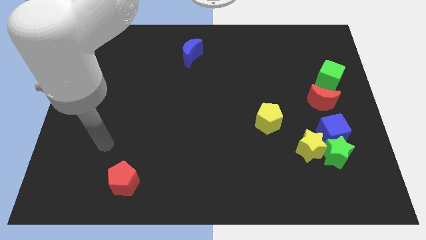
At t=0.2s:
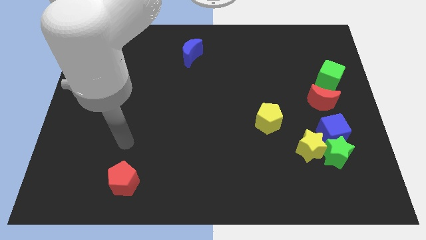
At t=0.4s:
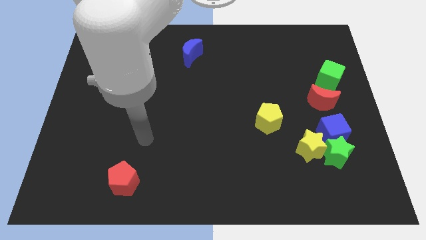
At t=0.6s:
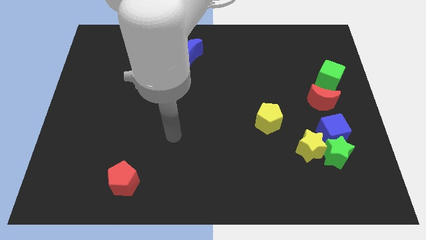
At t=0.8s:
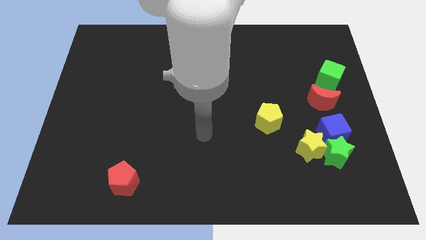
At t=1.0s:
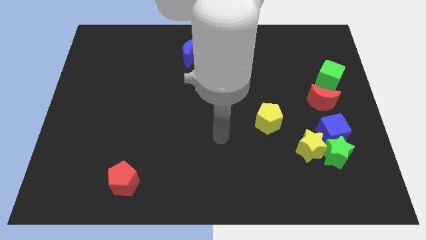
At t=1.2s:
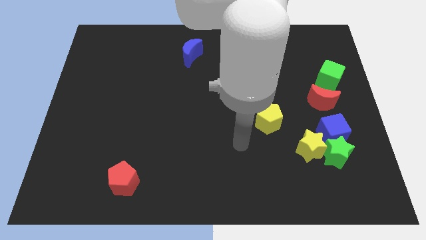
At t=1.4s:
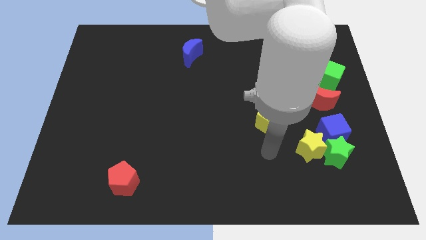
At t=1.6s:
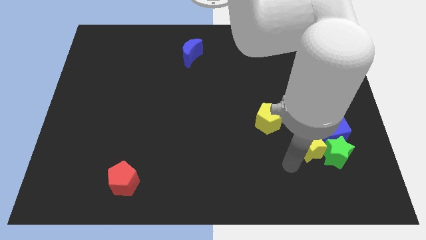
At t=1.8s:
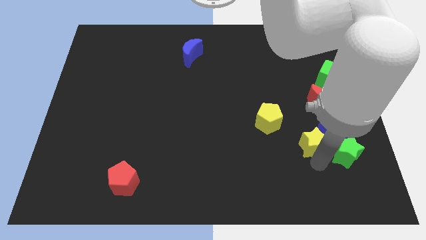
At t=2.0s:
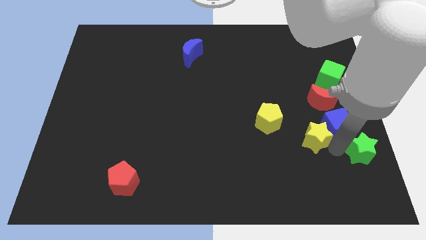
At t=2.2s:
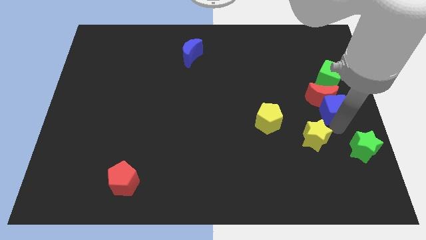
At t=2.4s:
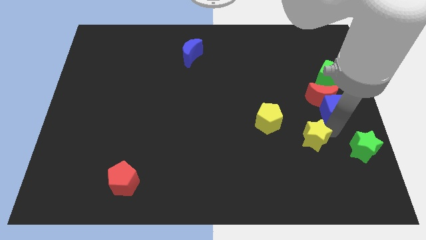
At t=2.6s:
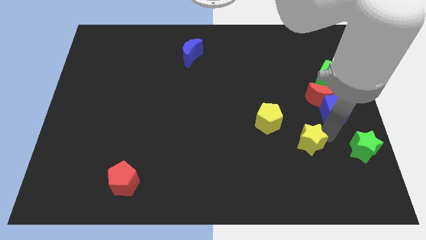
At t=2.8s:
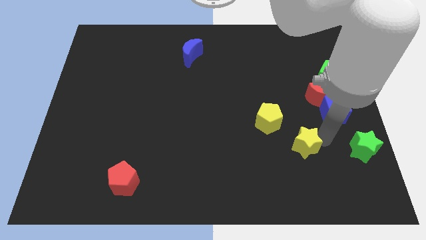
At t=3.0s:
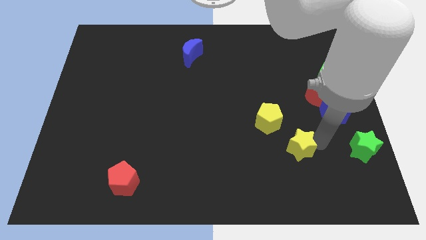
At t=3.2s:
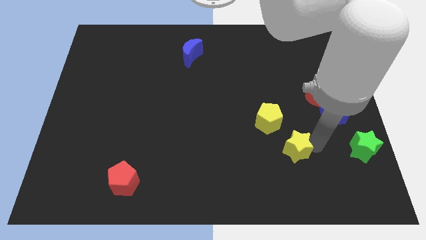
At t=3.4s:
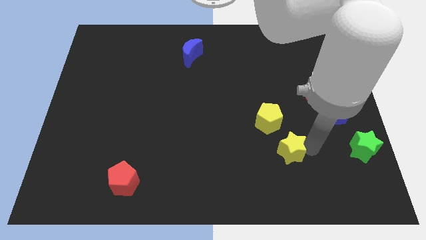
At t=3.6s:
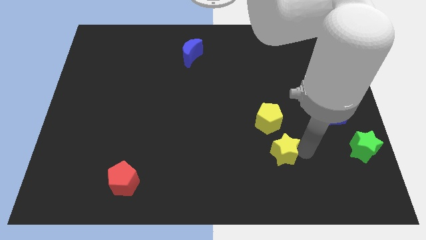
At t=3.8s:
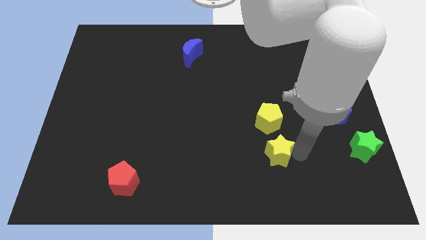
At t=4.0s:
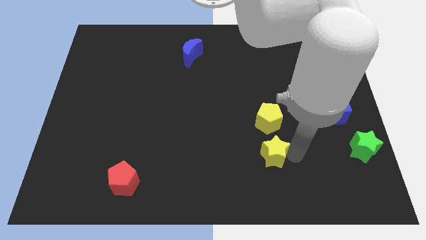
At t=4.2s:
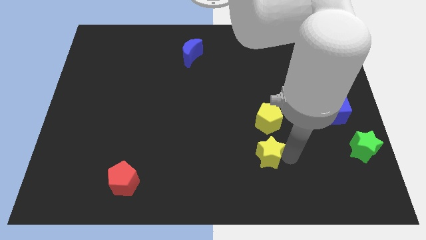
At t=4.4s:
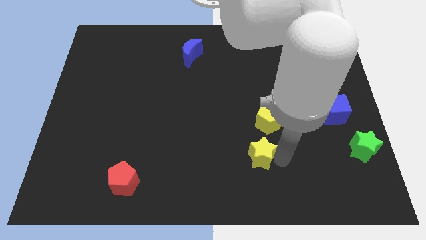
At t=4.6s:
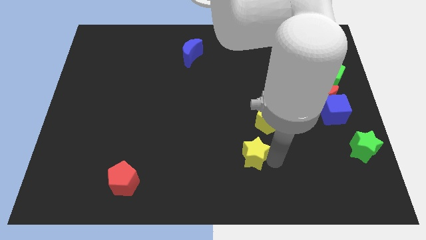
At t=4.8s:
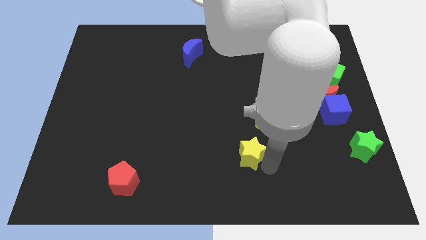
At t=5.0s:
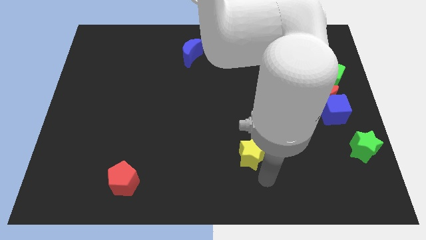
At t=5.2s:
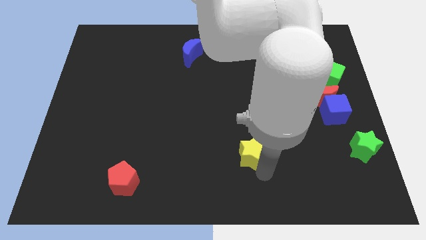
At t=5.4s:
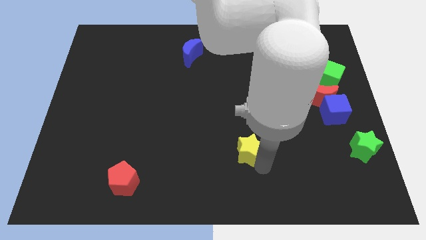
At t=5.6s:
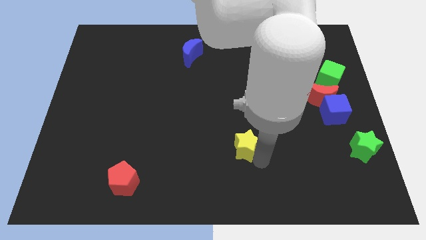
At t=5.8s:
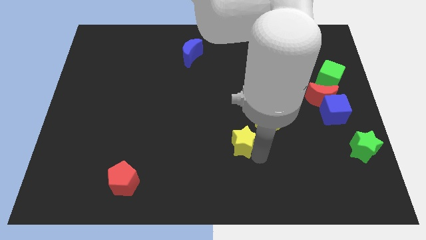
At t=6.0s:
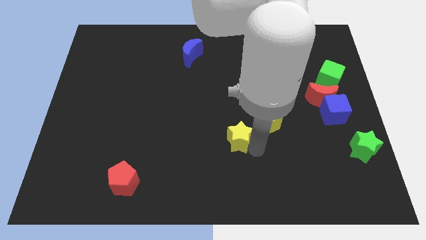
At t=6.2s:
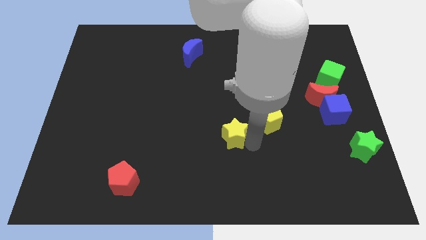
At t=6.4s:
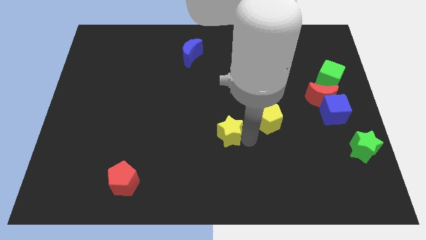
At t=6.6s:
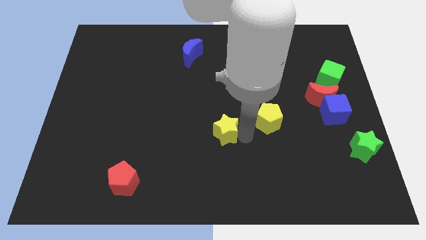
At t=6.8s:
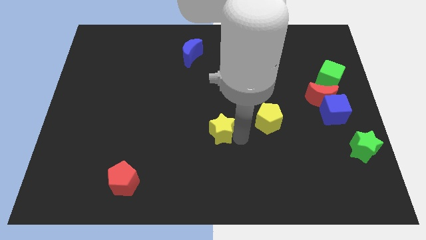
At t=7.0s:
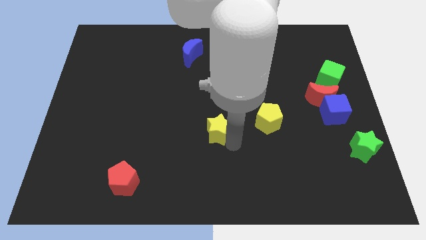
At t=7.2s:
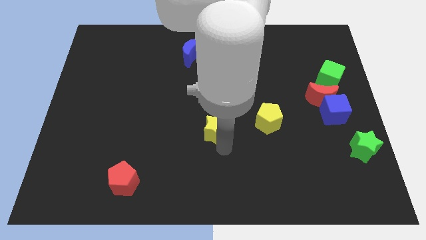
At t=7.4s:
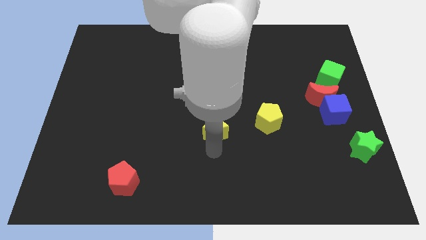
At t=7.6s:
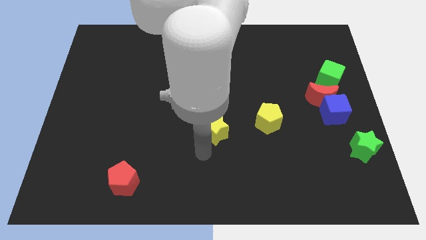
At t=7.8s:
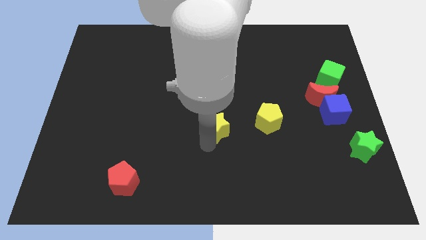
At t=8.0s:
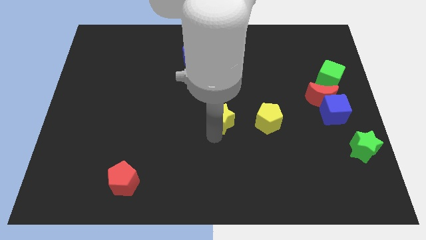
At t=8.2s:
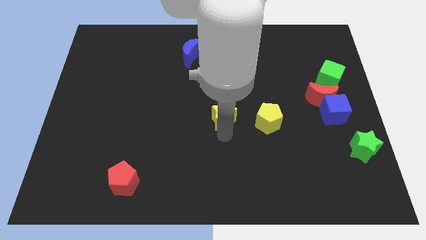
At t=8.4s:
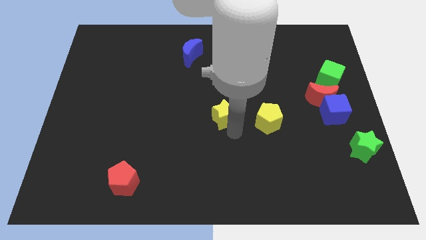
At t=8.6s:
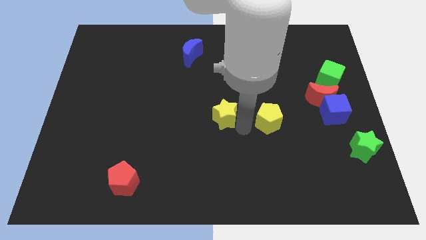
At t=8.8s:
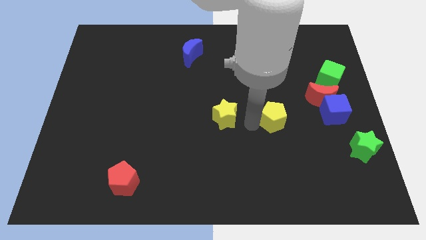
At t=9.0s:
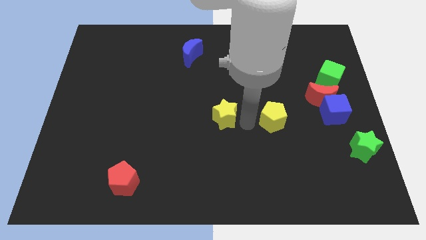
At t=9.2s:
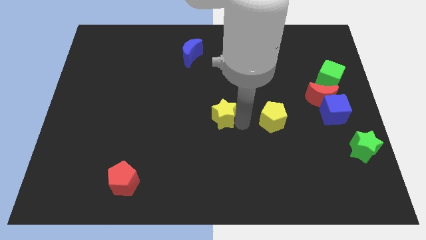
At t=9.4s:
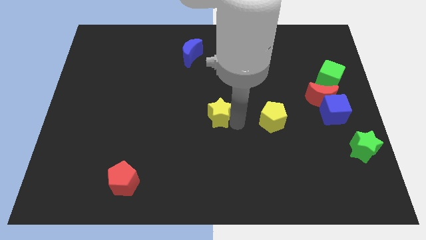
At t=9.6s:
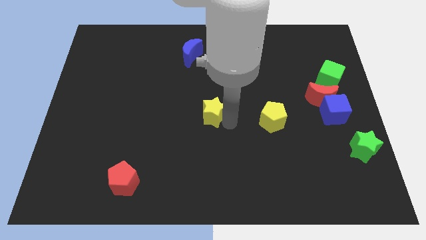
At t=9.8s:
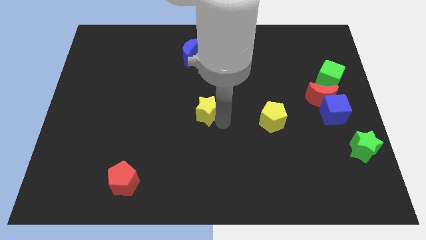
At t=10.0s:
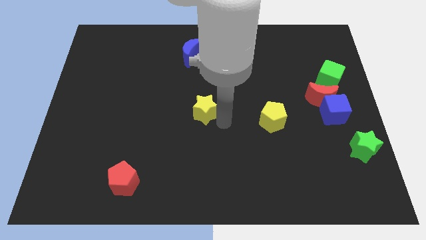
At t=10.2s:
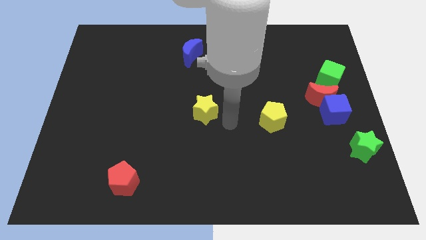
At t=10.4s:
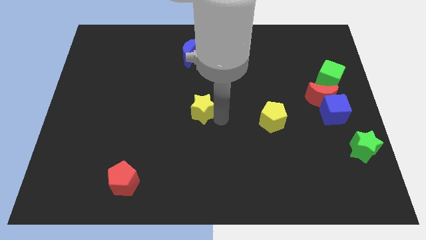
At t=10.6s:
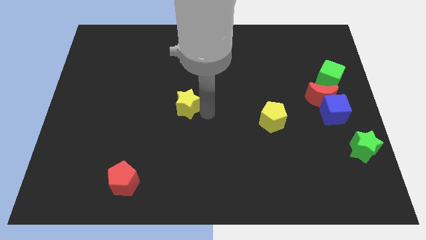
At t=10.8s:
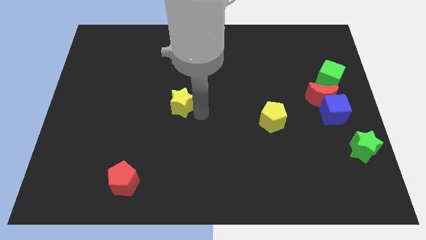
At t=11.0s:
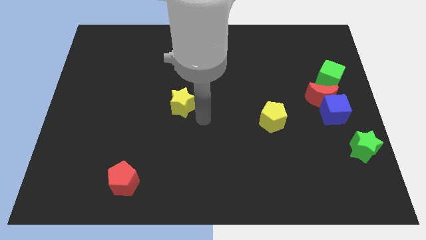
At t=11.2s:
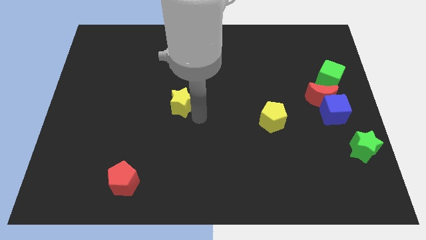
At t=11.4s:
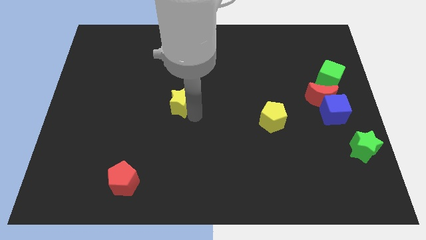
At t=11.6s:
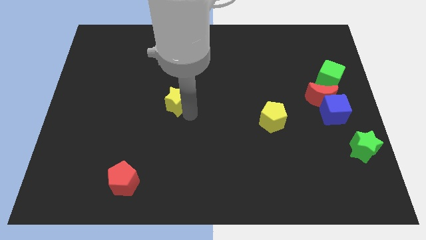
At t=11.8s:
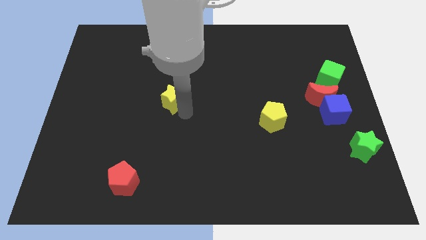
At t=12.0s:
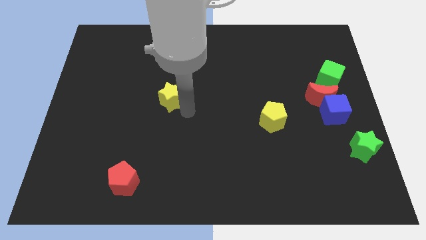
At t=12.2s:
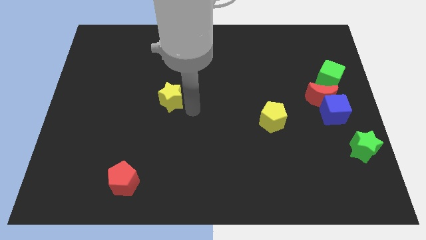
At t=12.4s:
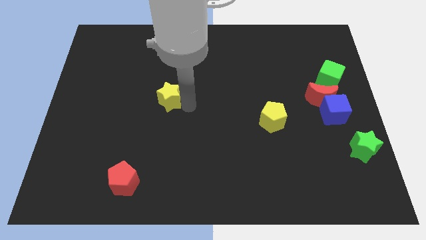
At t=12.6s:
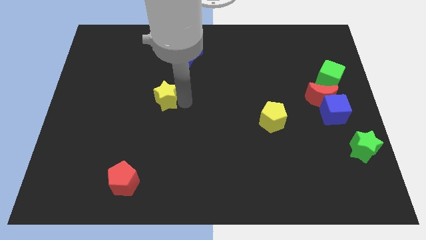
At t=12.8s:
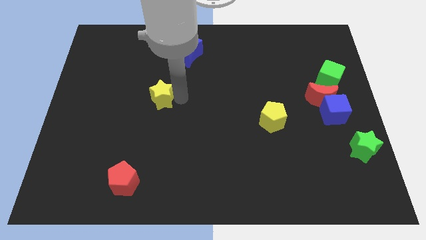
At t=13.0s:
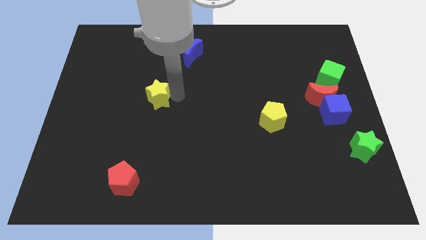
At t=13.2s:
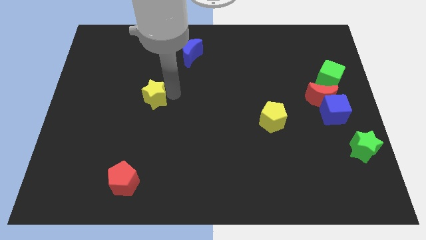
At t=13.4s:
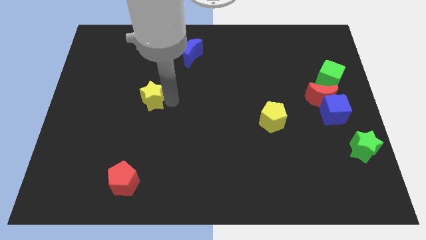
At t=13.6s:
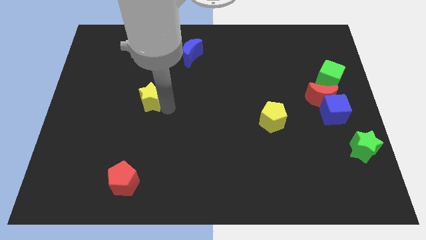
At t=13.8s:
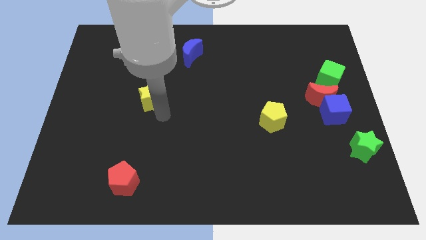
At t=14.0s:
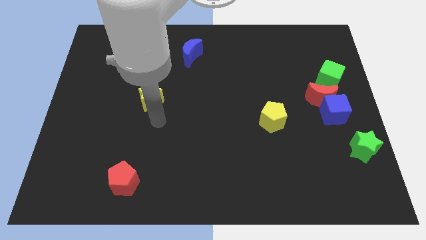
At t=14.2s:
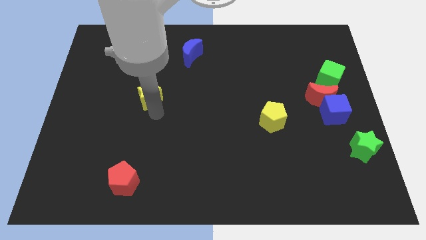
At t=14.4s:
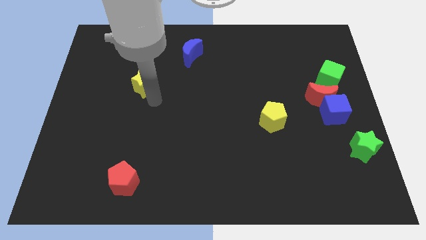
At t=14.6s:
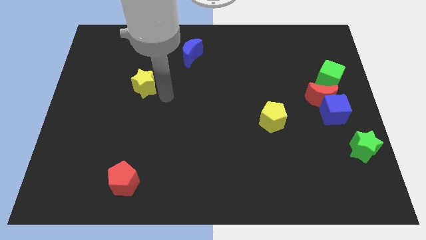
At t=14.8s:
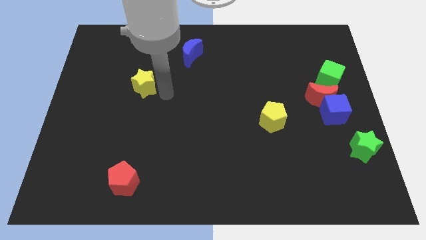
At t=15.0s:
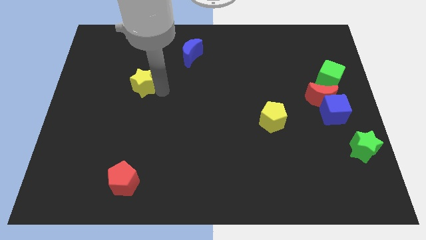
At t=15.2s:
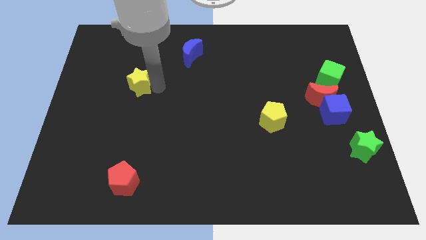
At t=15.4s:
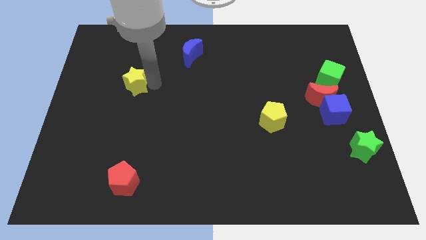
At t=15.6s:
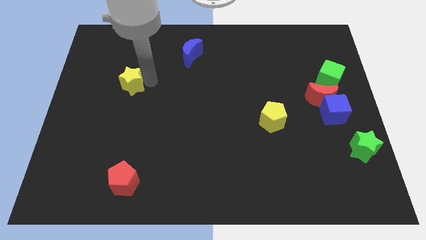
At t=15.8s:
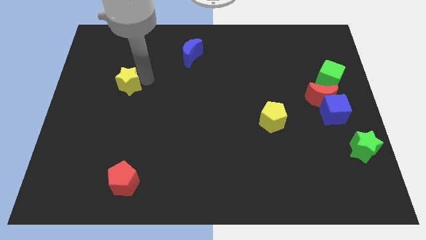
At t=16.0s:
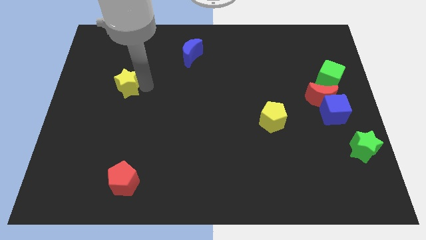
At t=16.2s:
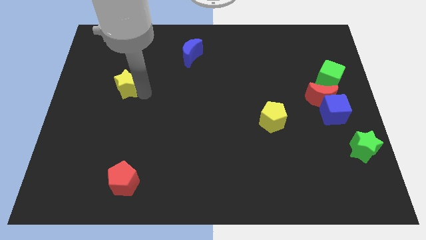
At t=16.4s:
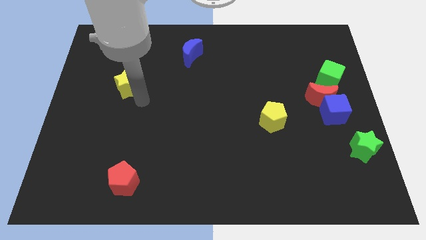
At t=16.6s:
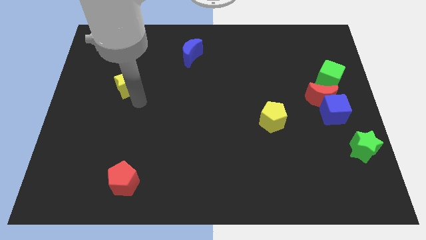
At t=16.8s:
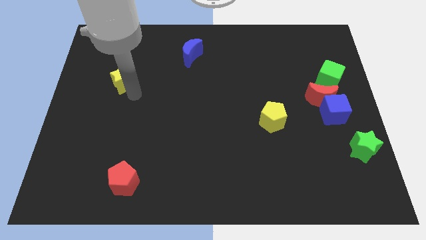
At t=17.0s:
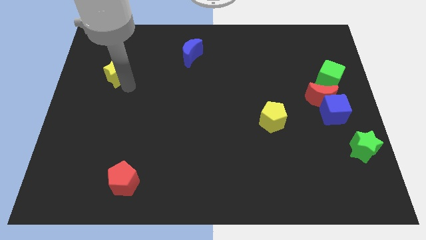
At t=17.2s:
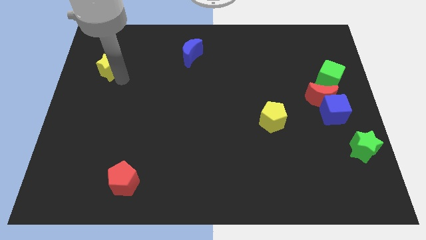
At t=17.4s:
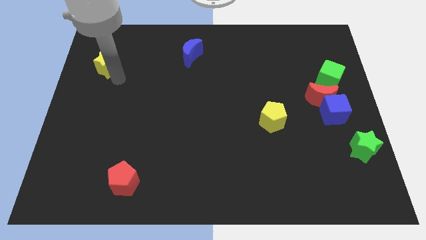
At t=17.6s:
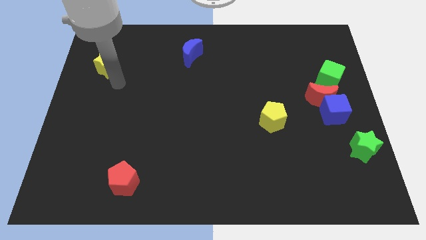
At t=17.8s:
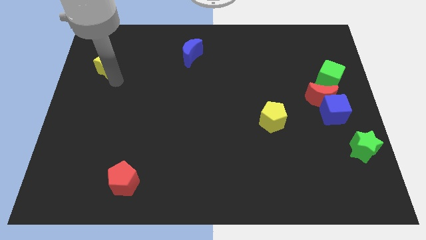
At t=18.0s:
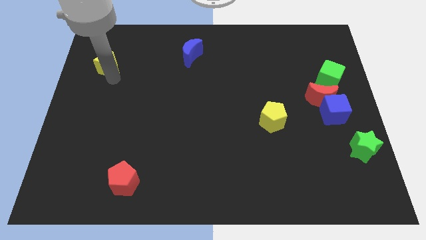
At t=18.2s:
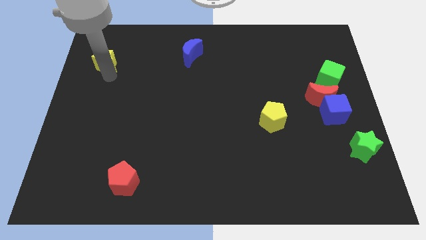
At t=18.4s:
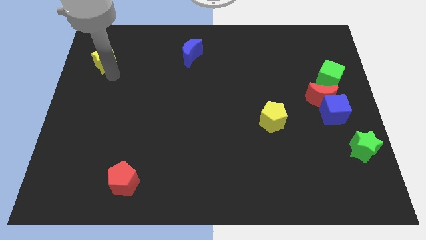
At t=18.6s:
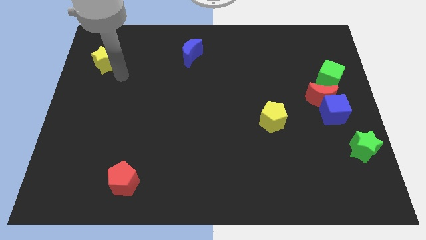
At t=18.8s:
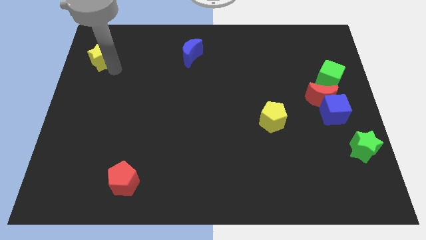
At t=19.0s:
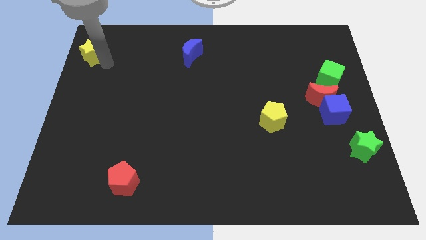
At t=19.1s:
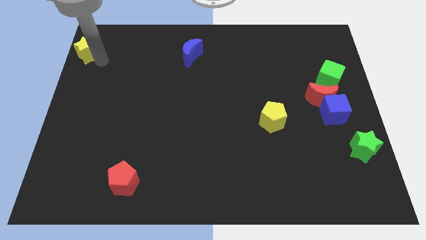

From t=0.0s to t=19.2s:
put the yellow star to the top left corner
